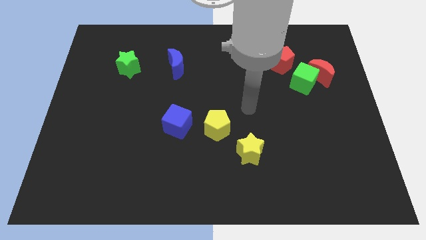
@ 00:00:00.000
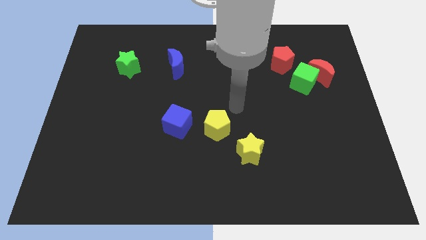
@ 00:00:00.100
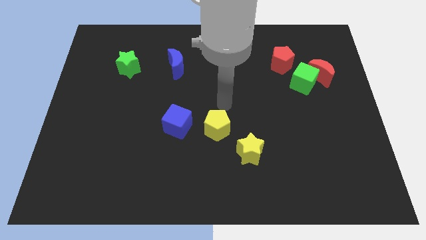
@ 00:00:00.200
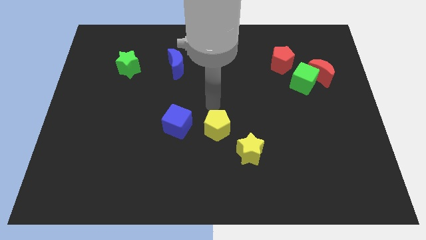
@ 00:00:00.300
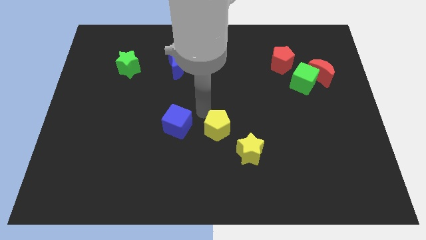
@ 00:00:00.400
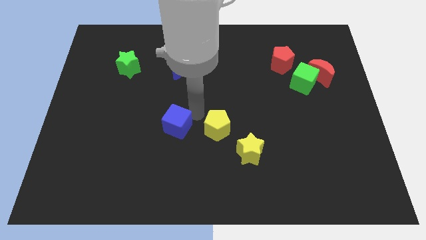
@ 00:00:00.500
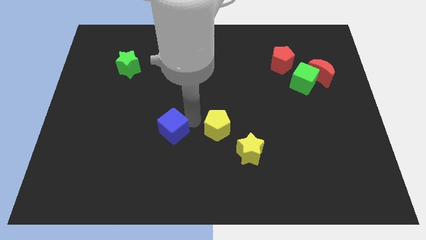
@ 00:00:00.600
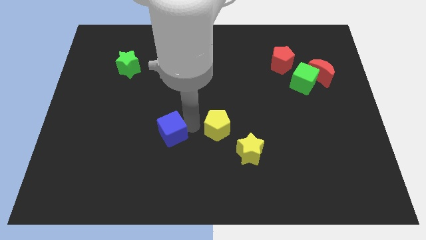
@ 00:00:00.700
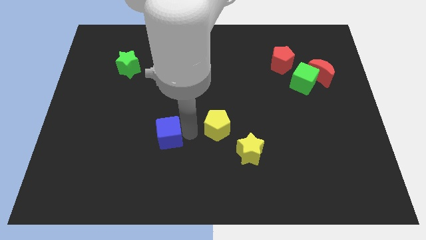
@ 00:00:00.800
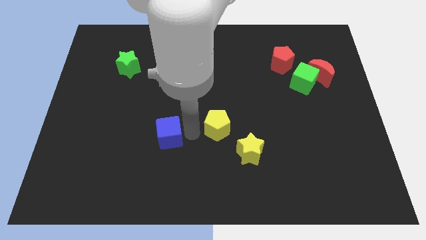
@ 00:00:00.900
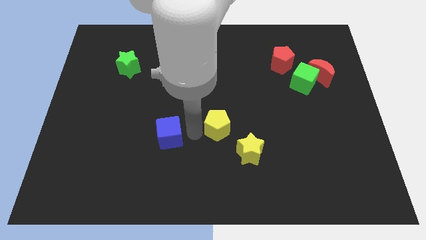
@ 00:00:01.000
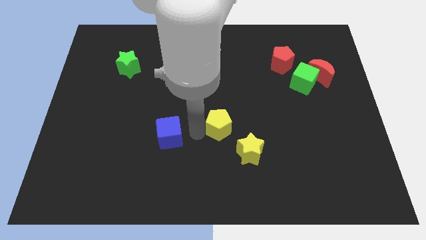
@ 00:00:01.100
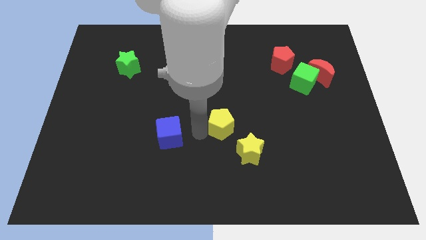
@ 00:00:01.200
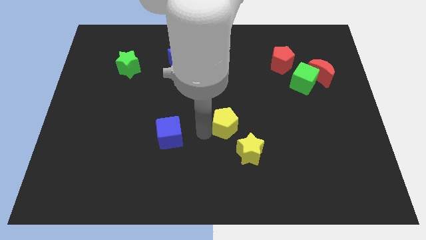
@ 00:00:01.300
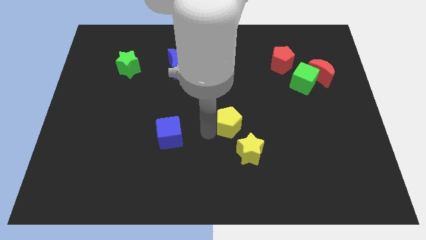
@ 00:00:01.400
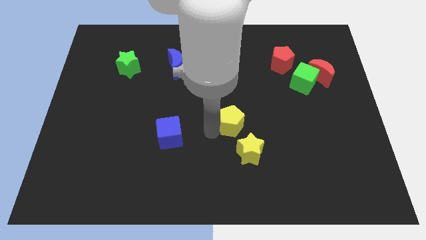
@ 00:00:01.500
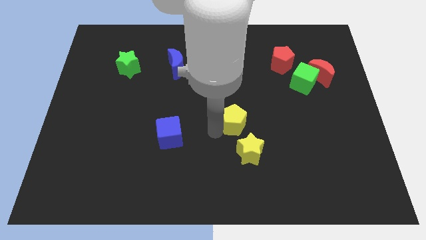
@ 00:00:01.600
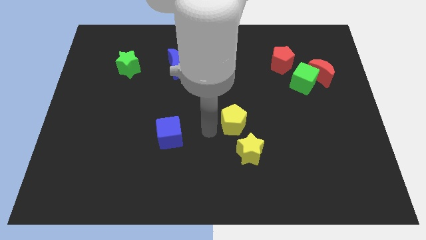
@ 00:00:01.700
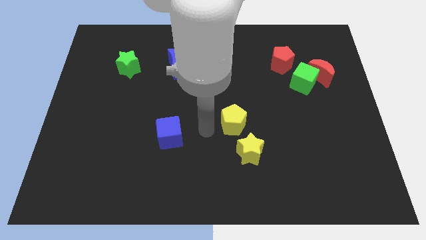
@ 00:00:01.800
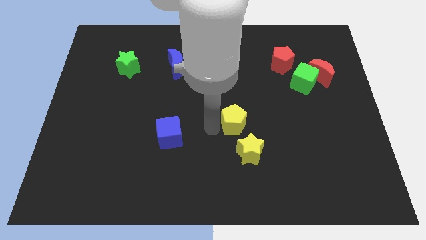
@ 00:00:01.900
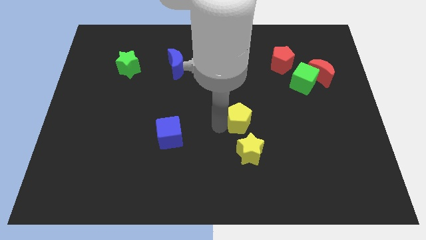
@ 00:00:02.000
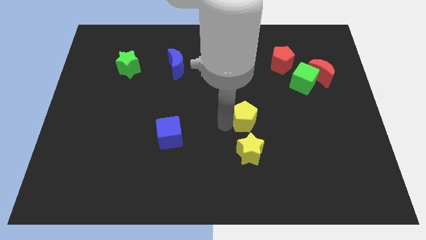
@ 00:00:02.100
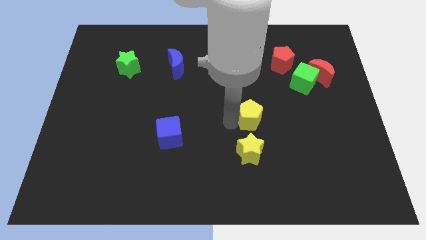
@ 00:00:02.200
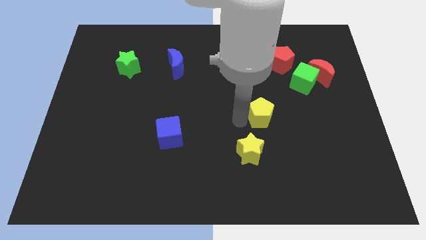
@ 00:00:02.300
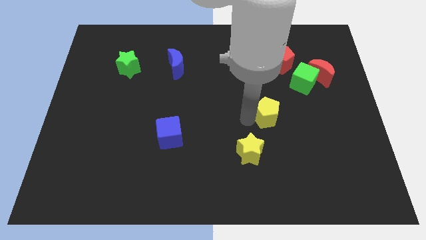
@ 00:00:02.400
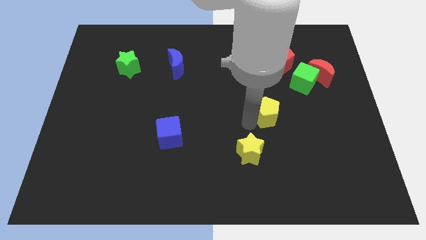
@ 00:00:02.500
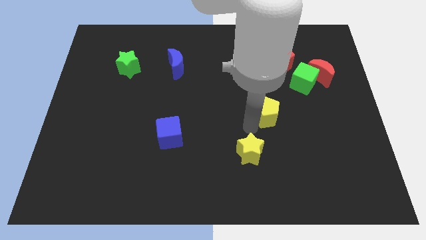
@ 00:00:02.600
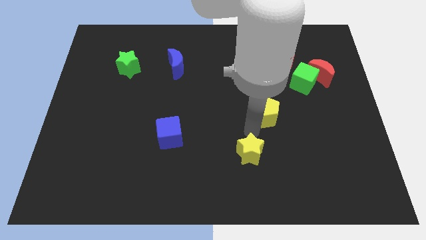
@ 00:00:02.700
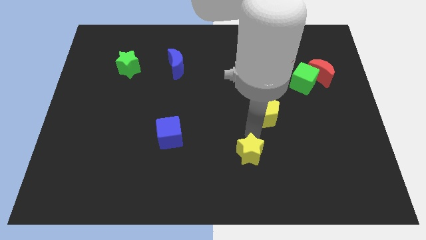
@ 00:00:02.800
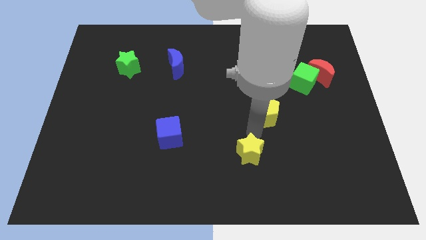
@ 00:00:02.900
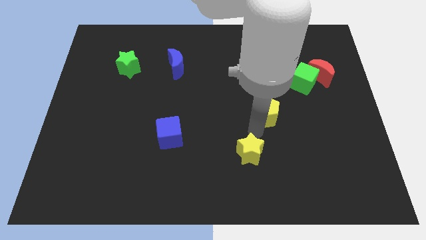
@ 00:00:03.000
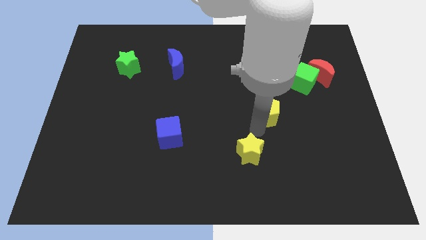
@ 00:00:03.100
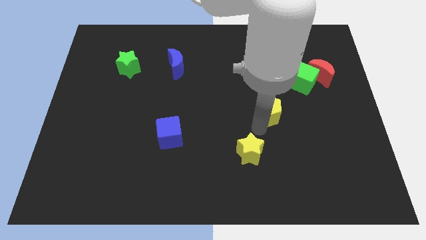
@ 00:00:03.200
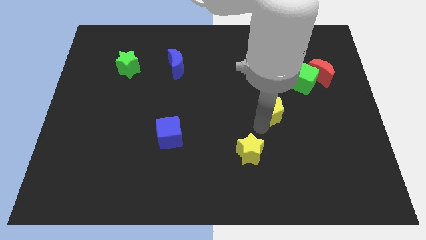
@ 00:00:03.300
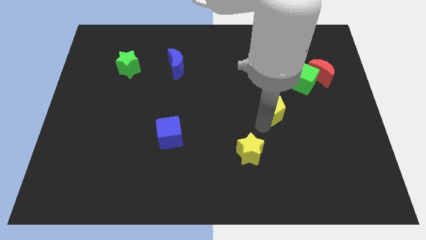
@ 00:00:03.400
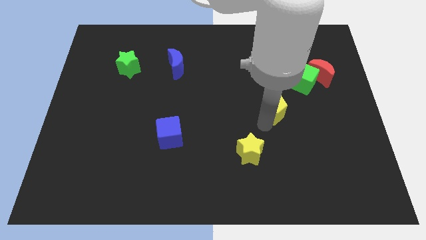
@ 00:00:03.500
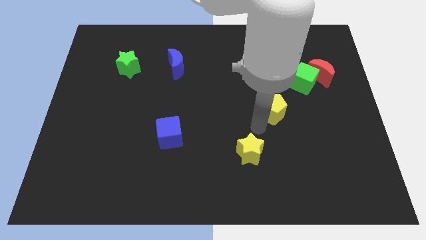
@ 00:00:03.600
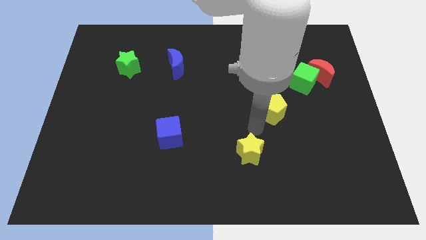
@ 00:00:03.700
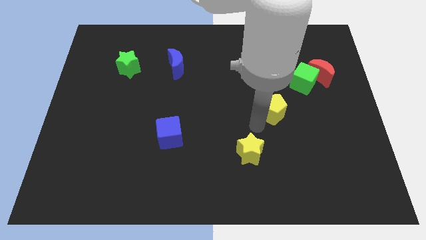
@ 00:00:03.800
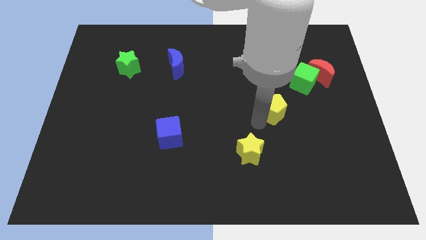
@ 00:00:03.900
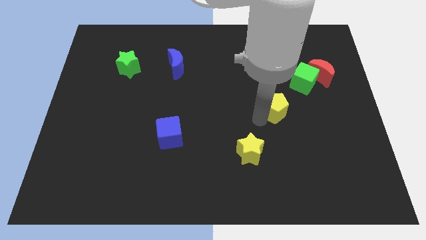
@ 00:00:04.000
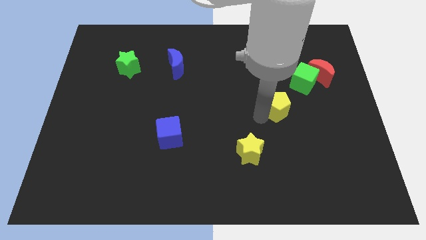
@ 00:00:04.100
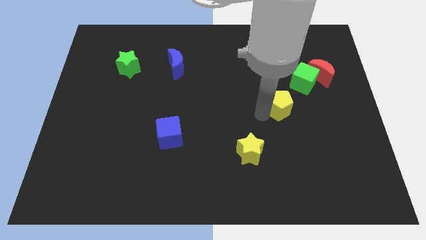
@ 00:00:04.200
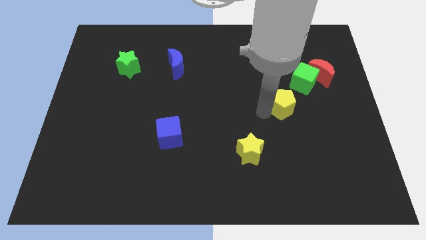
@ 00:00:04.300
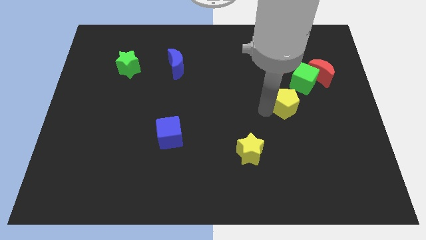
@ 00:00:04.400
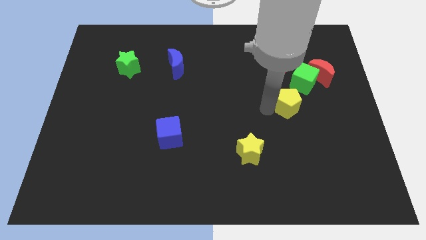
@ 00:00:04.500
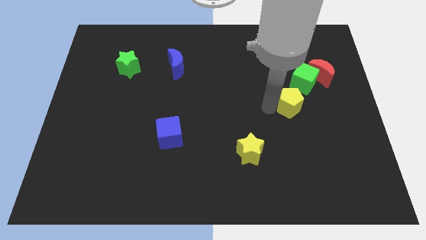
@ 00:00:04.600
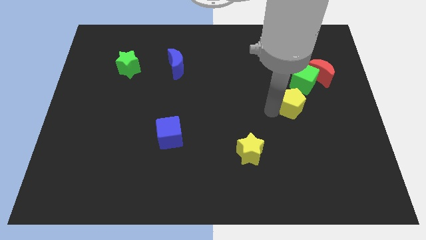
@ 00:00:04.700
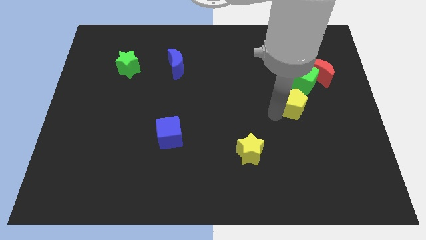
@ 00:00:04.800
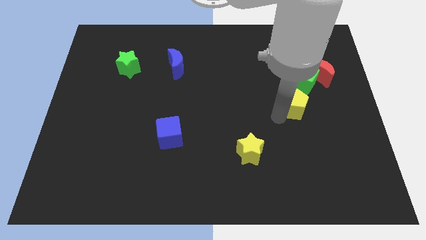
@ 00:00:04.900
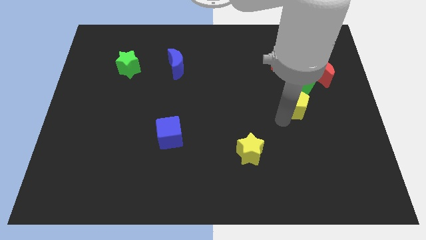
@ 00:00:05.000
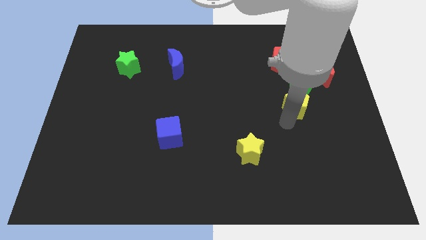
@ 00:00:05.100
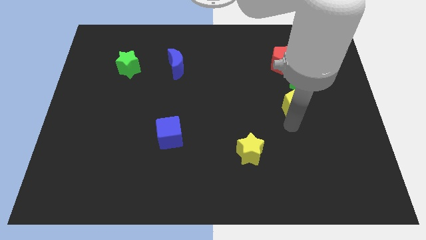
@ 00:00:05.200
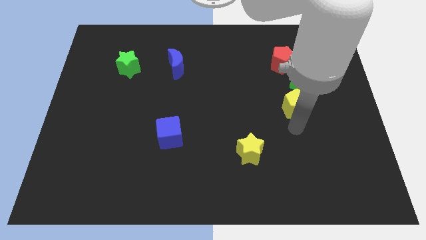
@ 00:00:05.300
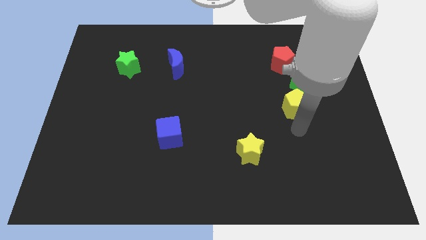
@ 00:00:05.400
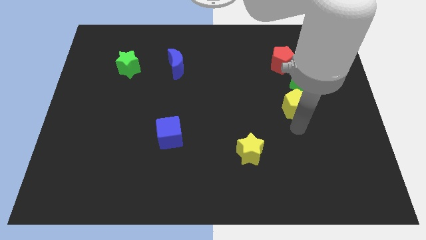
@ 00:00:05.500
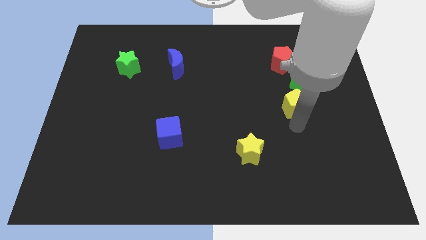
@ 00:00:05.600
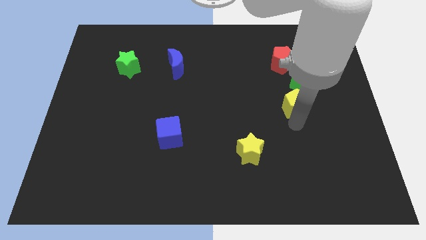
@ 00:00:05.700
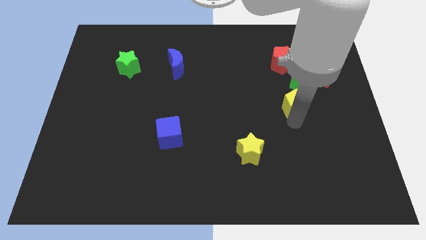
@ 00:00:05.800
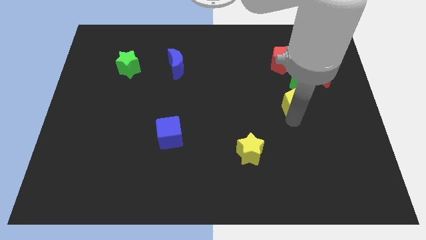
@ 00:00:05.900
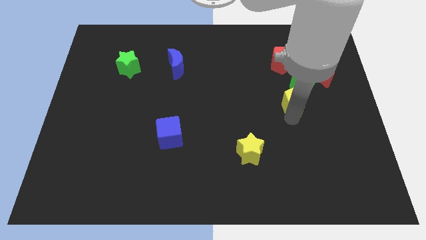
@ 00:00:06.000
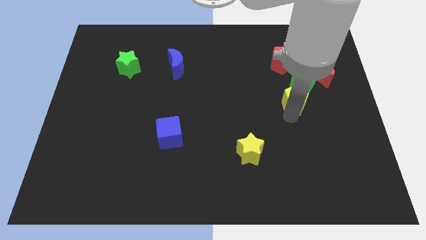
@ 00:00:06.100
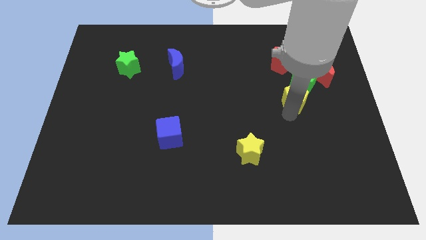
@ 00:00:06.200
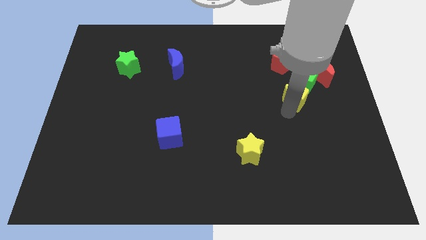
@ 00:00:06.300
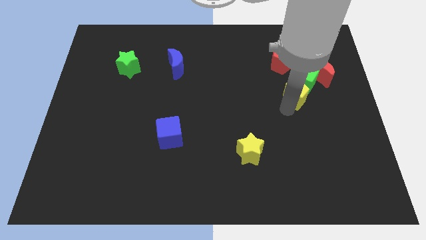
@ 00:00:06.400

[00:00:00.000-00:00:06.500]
slide the yellow pentagon next to the green cube
